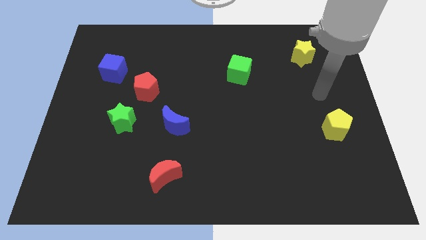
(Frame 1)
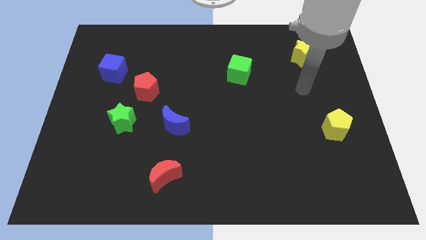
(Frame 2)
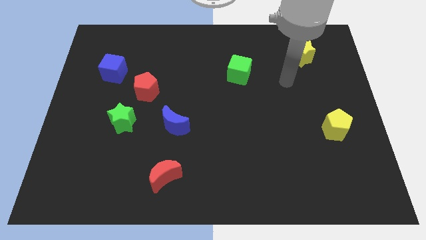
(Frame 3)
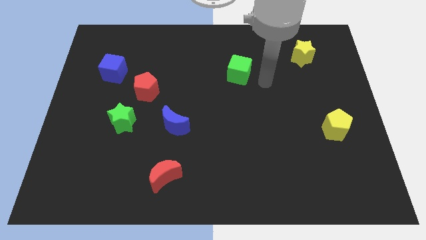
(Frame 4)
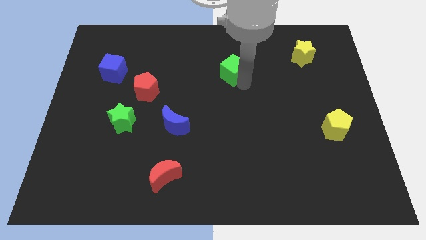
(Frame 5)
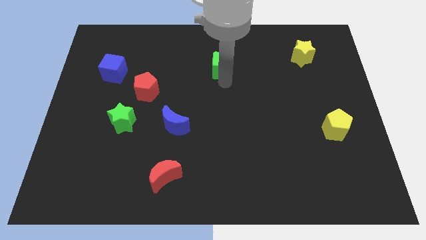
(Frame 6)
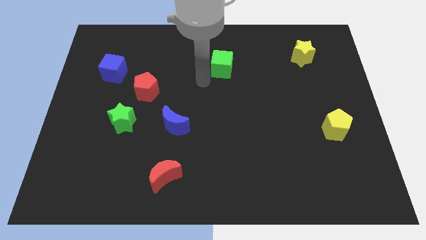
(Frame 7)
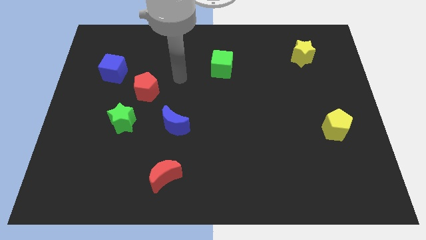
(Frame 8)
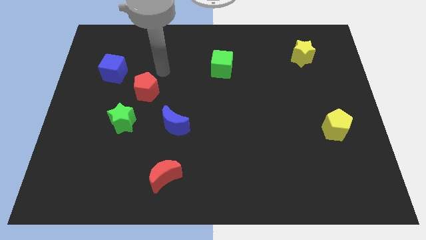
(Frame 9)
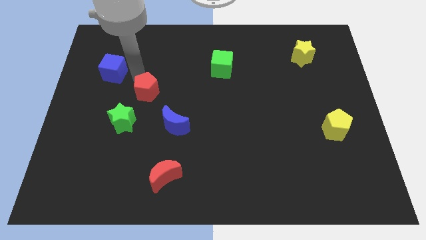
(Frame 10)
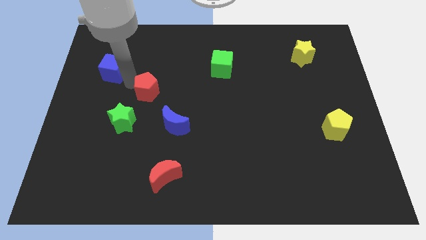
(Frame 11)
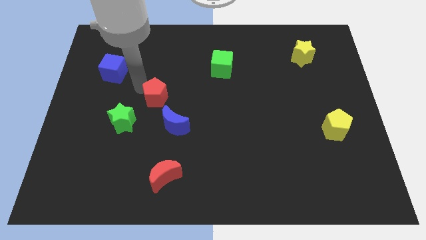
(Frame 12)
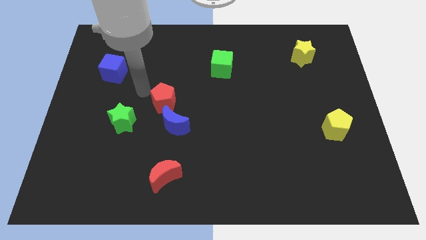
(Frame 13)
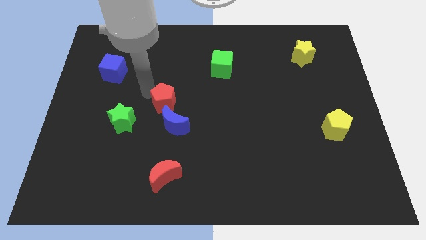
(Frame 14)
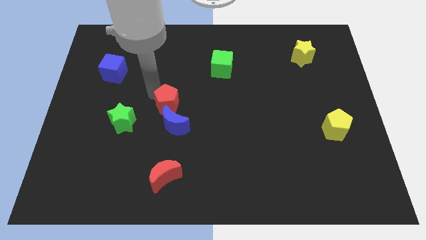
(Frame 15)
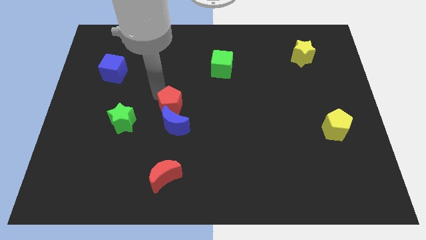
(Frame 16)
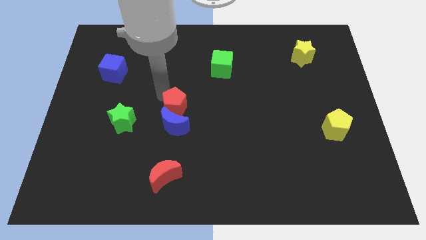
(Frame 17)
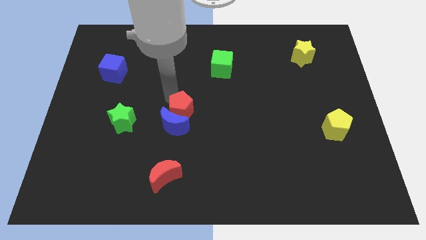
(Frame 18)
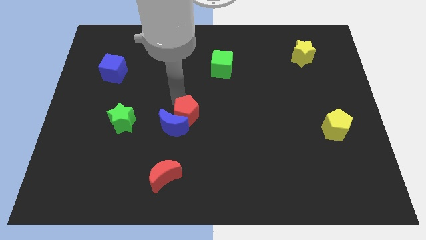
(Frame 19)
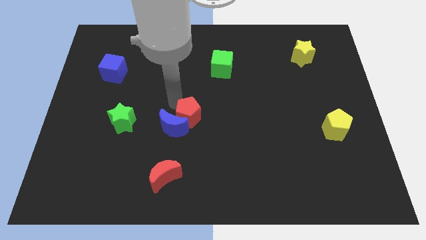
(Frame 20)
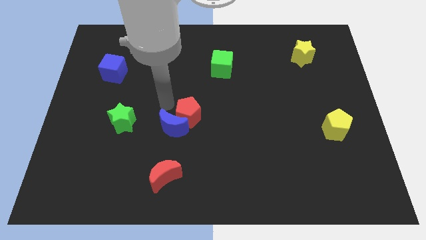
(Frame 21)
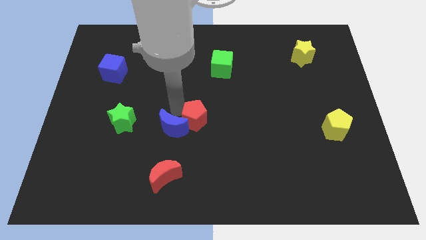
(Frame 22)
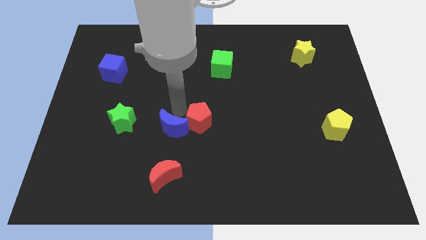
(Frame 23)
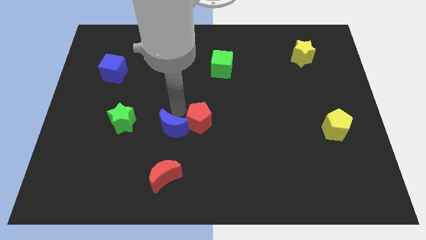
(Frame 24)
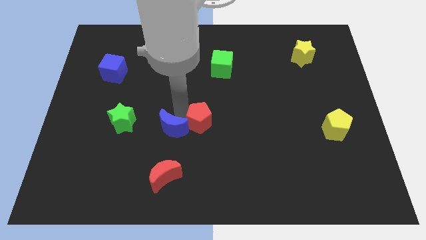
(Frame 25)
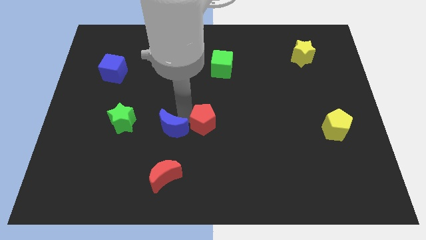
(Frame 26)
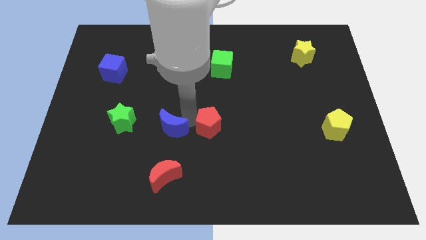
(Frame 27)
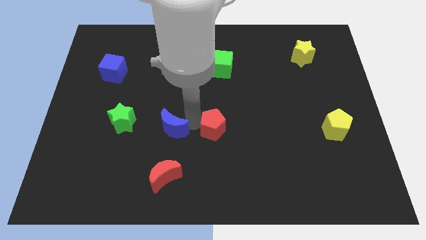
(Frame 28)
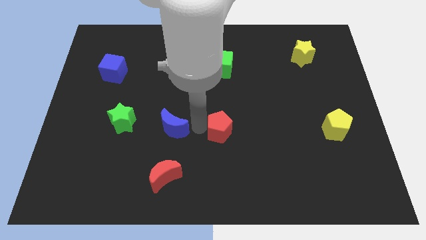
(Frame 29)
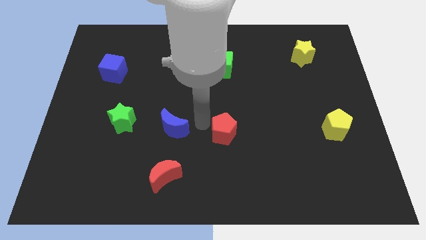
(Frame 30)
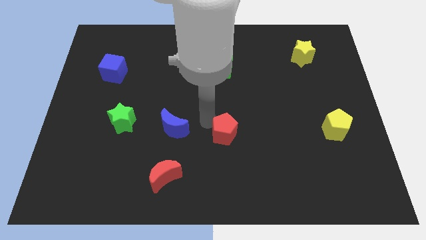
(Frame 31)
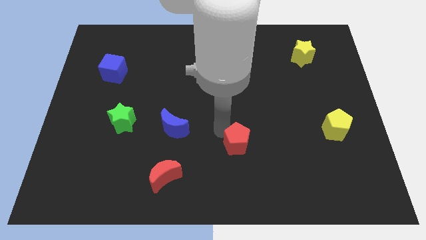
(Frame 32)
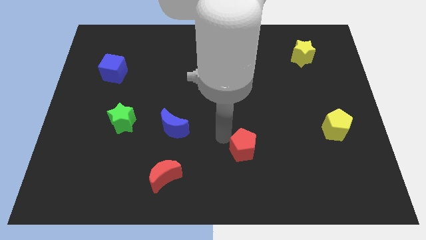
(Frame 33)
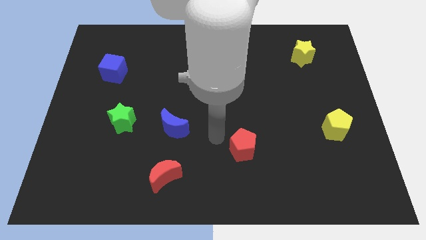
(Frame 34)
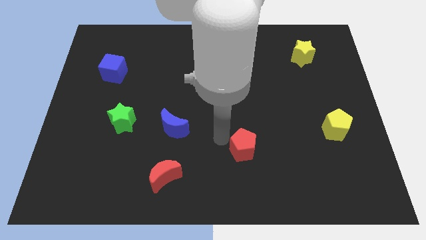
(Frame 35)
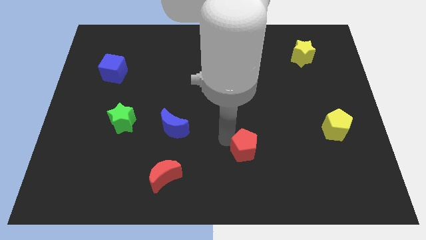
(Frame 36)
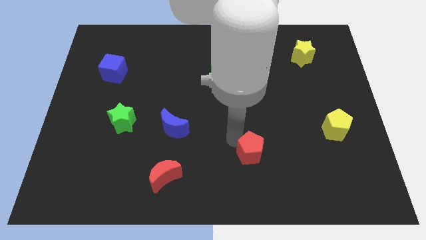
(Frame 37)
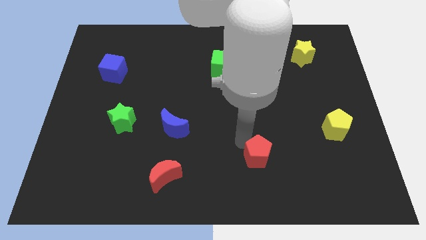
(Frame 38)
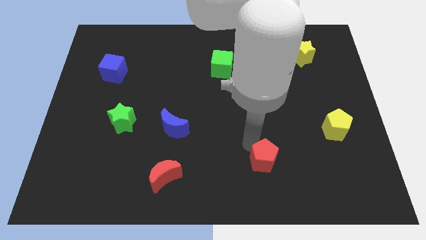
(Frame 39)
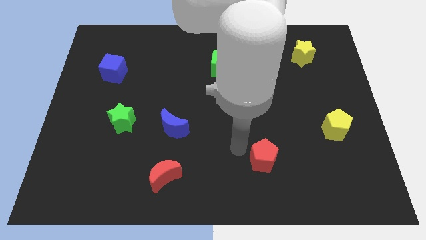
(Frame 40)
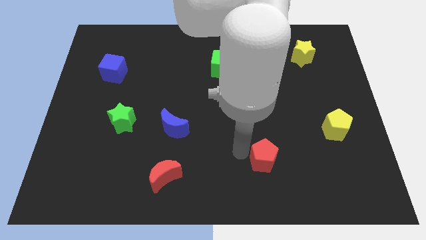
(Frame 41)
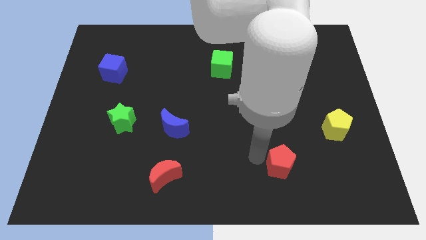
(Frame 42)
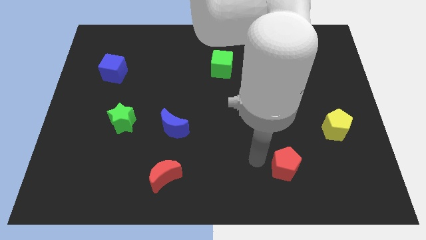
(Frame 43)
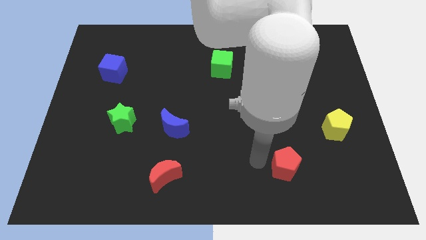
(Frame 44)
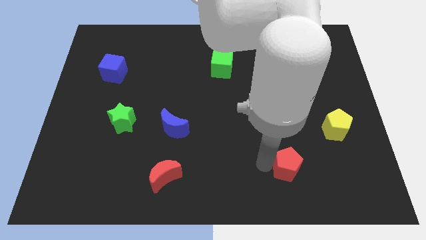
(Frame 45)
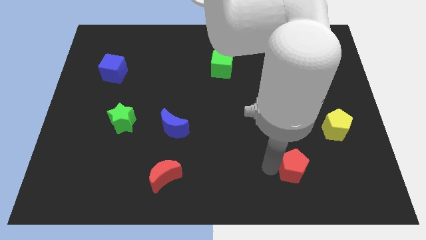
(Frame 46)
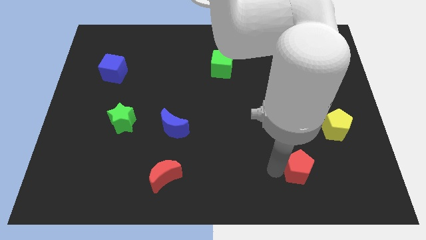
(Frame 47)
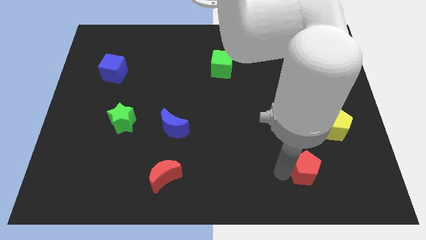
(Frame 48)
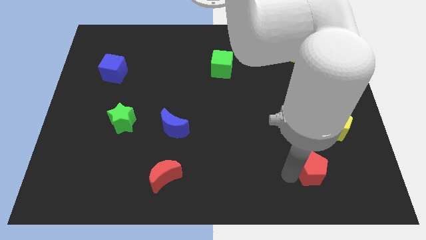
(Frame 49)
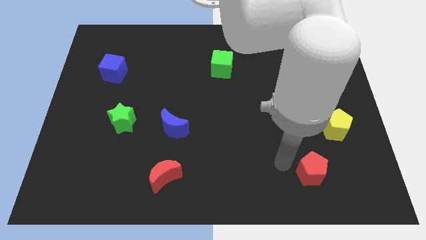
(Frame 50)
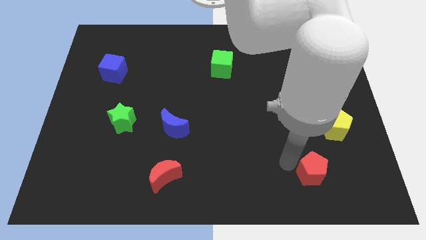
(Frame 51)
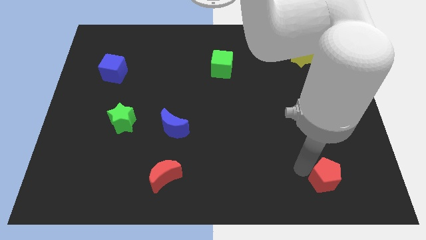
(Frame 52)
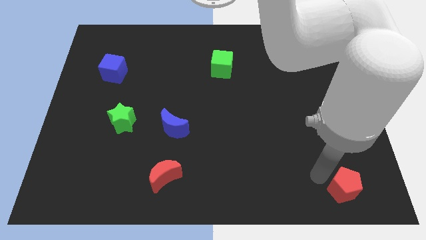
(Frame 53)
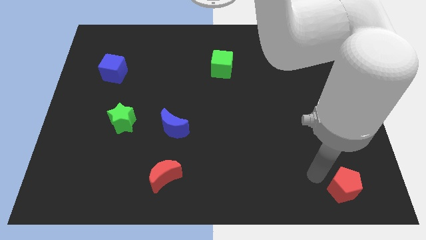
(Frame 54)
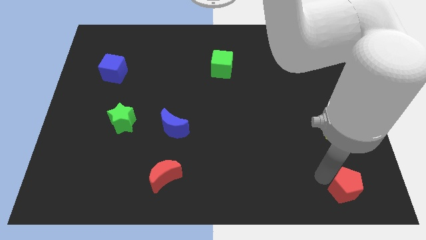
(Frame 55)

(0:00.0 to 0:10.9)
move the red pentagon to the lower right corner

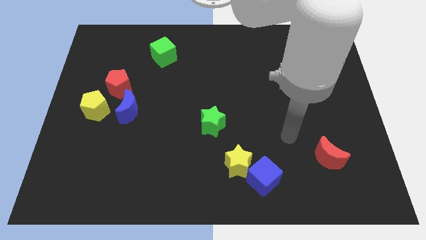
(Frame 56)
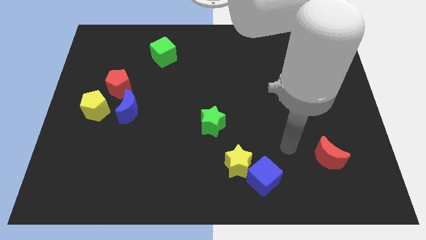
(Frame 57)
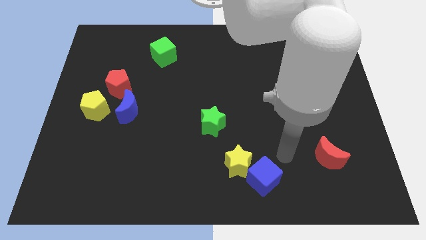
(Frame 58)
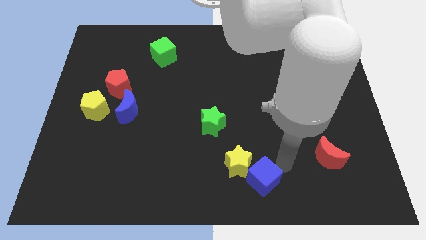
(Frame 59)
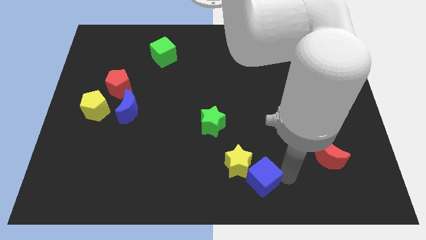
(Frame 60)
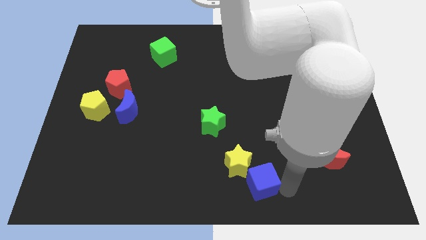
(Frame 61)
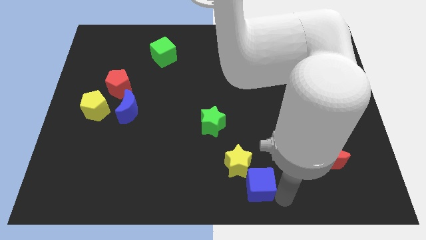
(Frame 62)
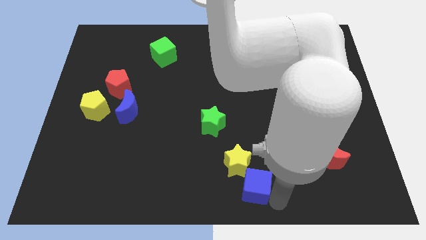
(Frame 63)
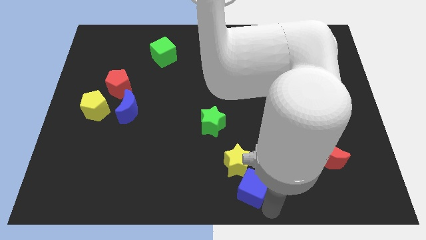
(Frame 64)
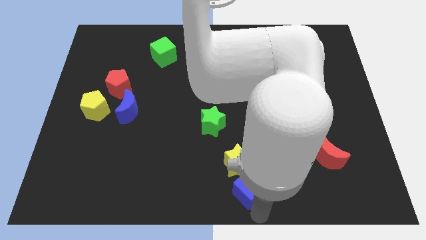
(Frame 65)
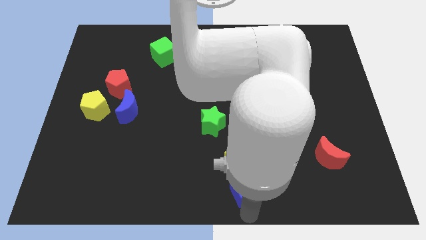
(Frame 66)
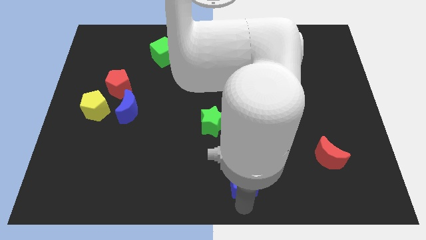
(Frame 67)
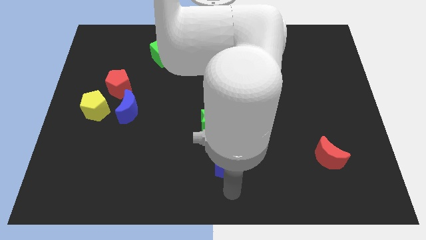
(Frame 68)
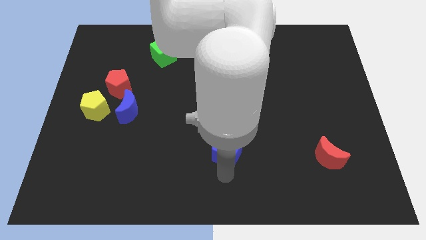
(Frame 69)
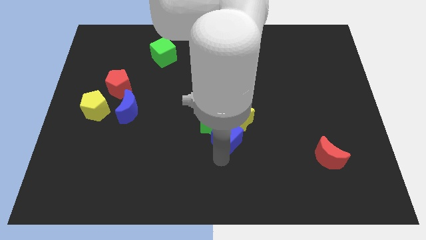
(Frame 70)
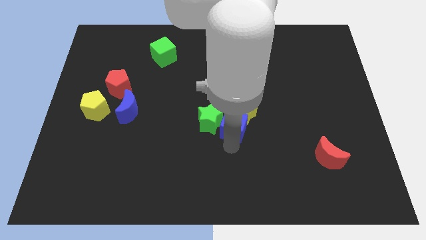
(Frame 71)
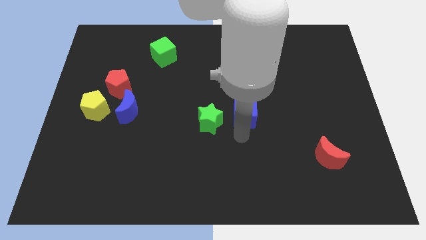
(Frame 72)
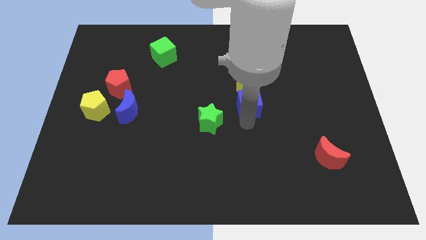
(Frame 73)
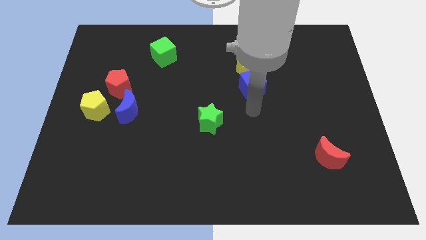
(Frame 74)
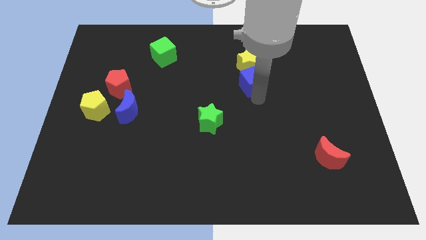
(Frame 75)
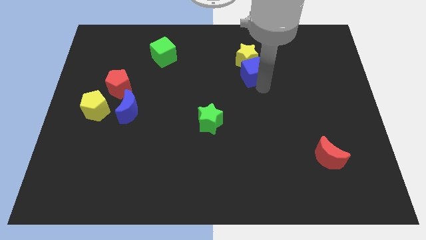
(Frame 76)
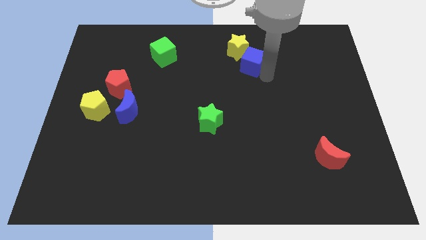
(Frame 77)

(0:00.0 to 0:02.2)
push the yellow star to the top side
